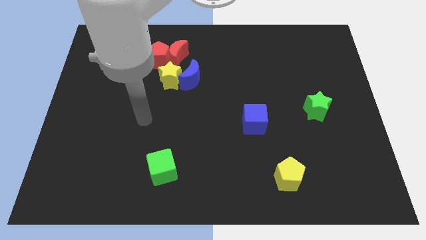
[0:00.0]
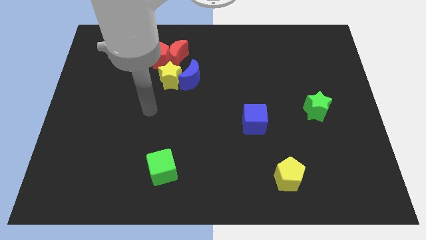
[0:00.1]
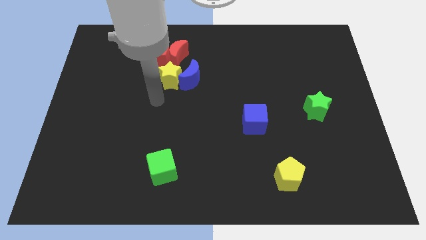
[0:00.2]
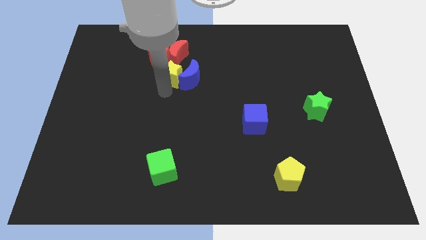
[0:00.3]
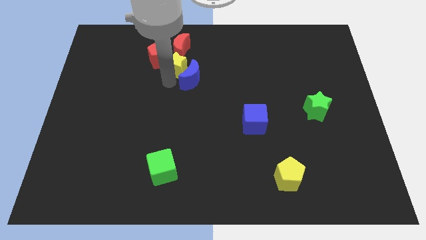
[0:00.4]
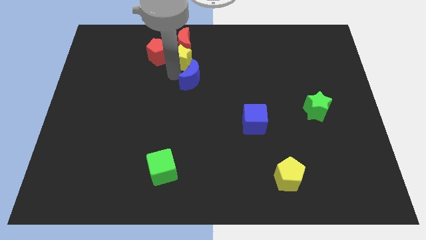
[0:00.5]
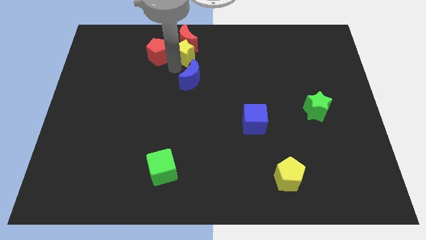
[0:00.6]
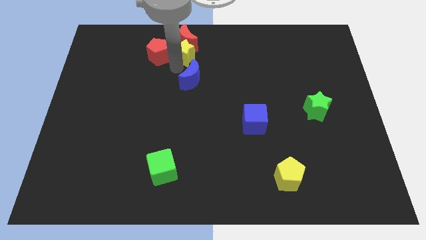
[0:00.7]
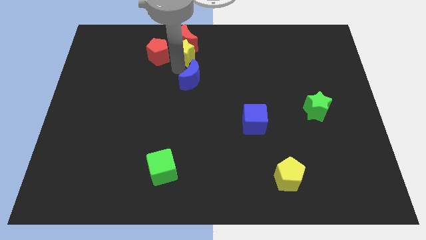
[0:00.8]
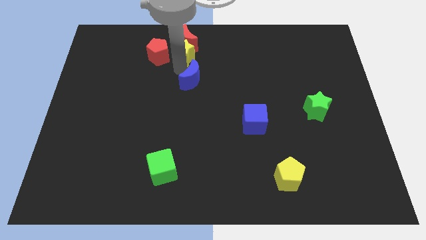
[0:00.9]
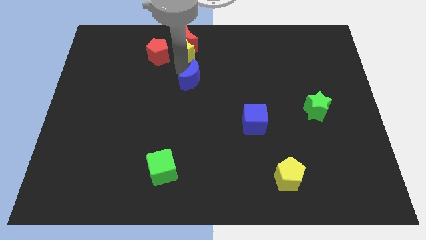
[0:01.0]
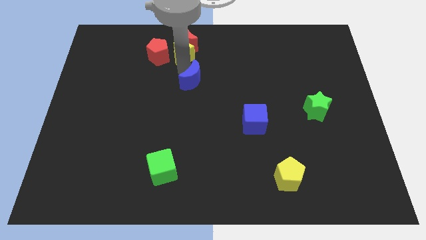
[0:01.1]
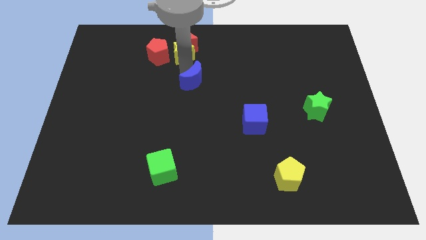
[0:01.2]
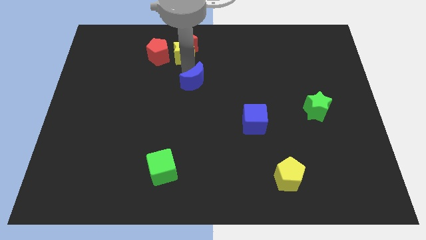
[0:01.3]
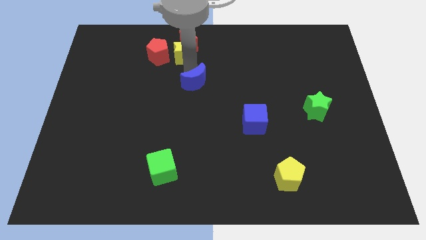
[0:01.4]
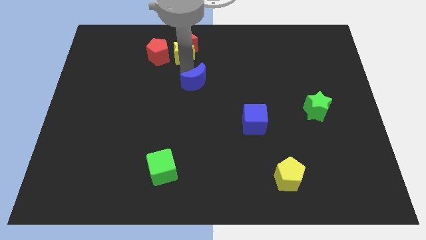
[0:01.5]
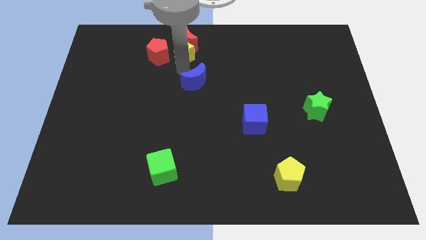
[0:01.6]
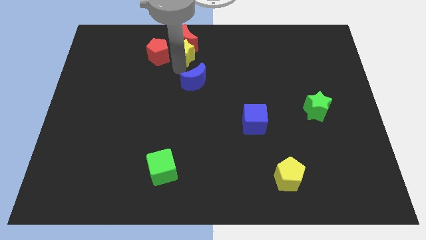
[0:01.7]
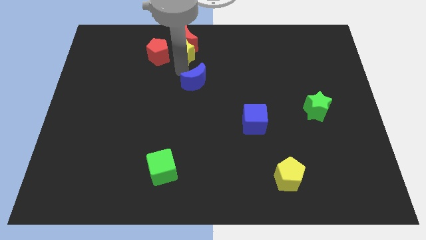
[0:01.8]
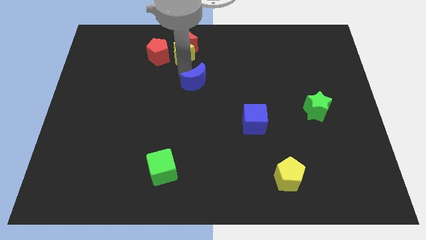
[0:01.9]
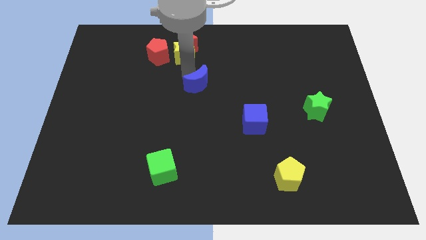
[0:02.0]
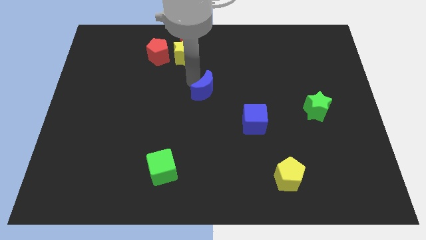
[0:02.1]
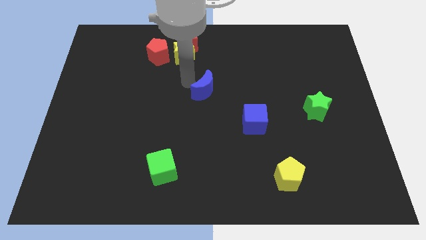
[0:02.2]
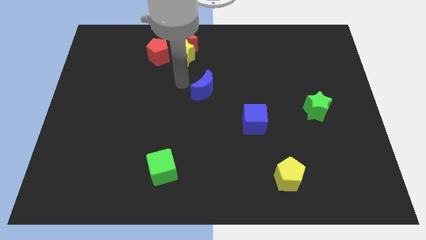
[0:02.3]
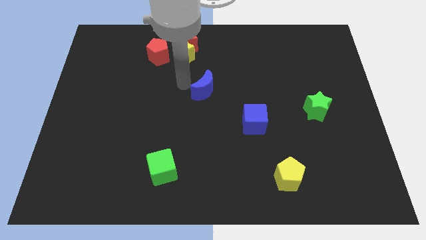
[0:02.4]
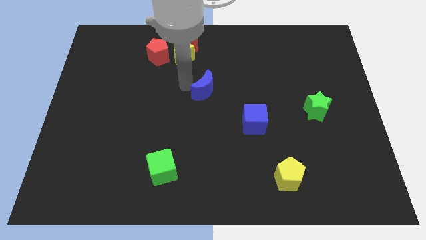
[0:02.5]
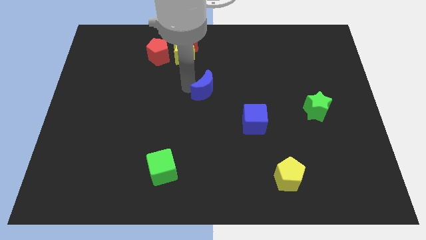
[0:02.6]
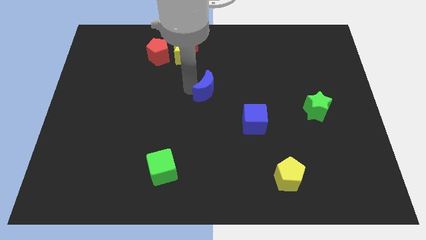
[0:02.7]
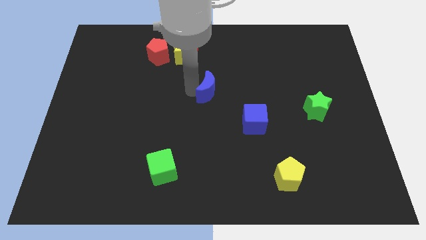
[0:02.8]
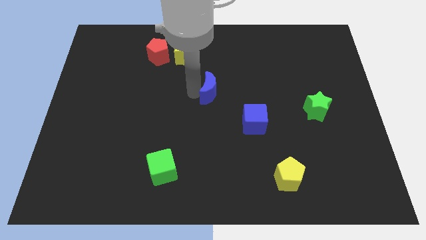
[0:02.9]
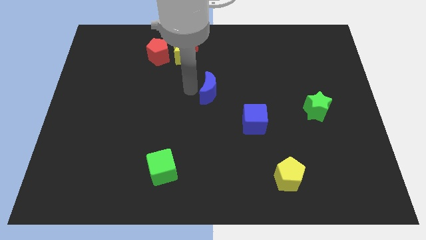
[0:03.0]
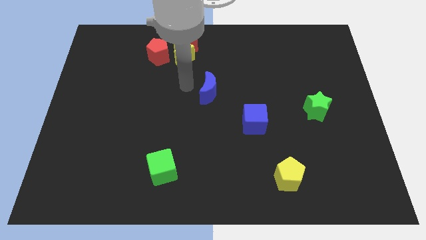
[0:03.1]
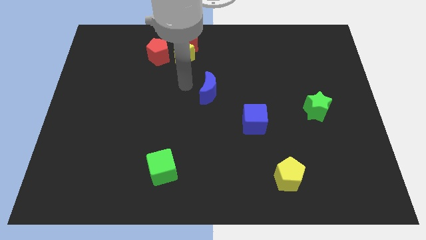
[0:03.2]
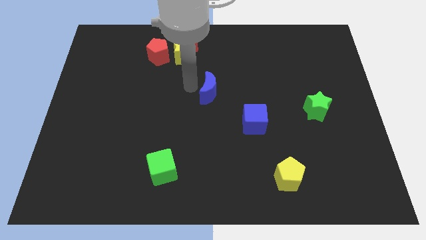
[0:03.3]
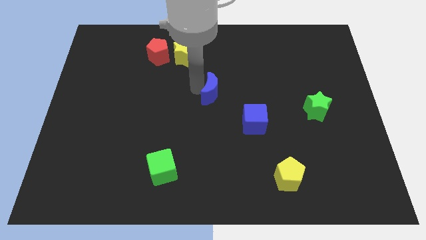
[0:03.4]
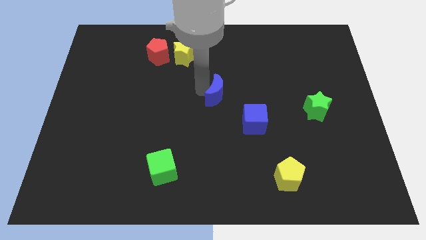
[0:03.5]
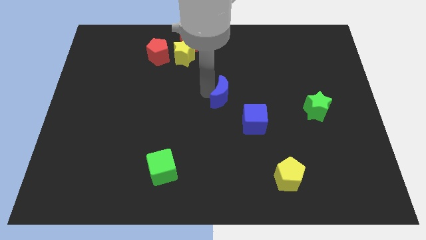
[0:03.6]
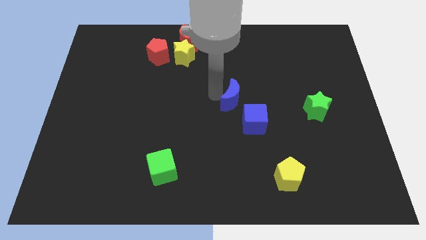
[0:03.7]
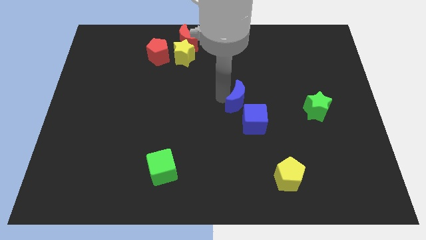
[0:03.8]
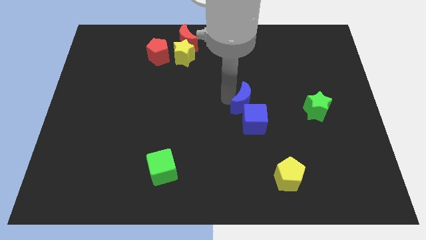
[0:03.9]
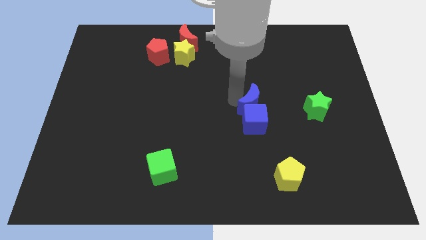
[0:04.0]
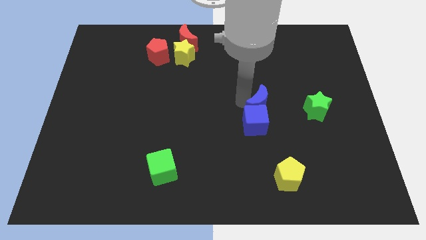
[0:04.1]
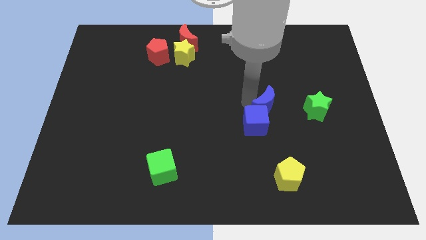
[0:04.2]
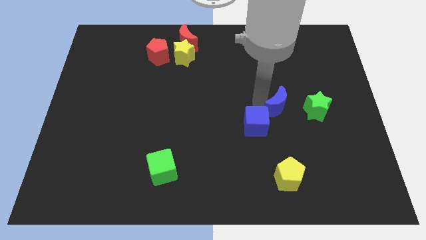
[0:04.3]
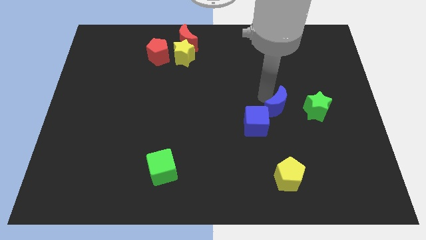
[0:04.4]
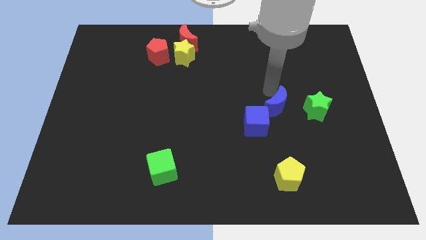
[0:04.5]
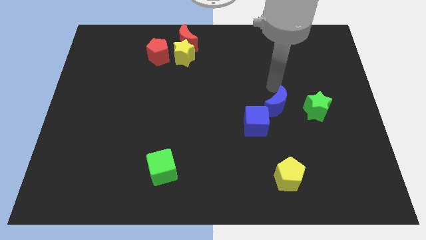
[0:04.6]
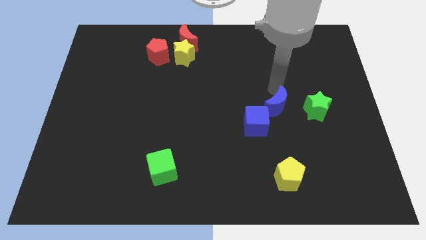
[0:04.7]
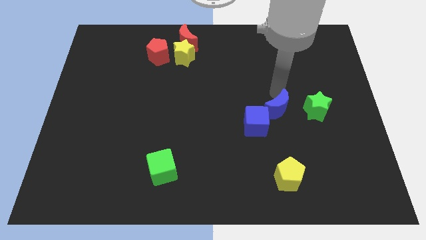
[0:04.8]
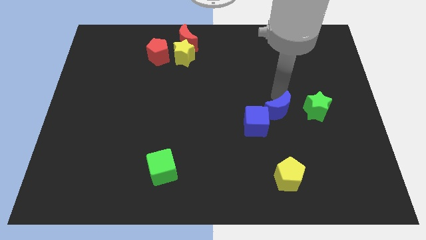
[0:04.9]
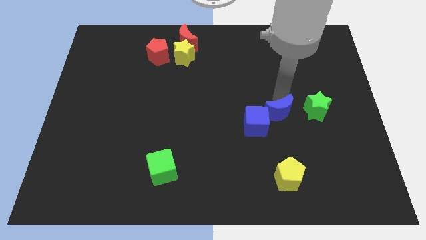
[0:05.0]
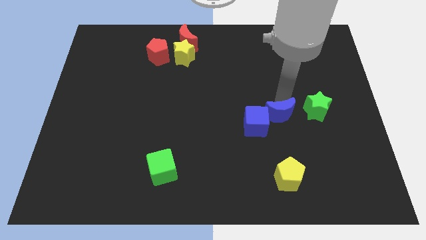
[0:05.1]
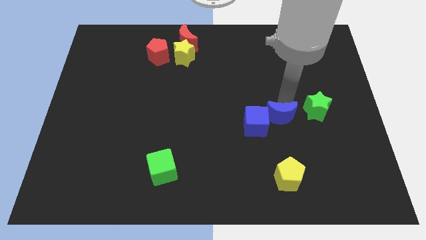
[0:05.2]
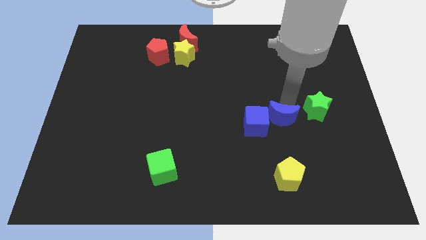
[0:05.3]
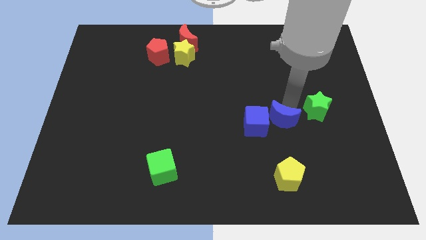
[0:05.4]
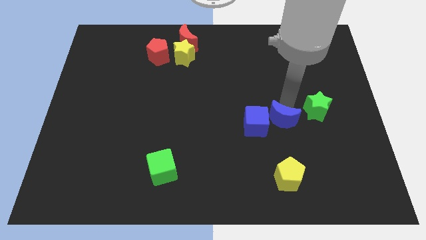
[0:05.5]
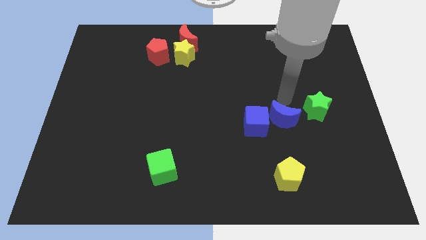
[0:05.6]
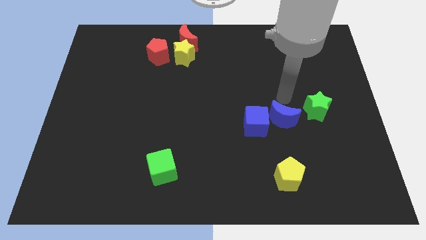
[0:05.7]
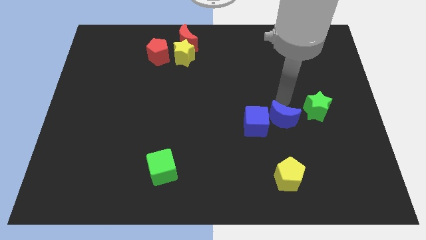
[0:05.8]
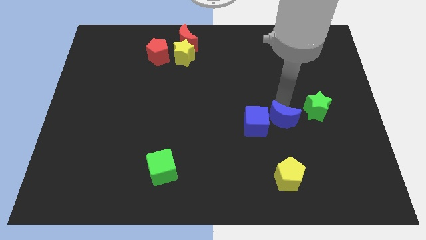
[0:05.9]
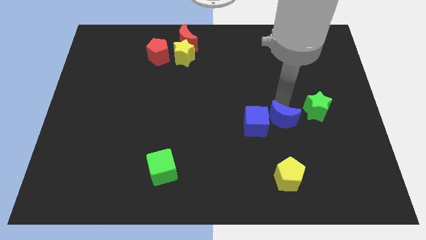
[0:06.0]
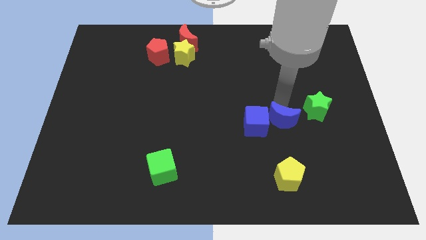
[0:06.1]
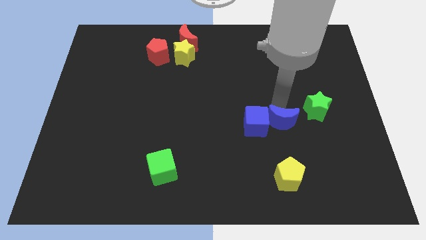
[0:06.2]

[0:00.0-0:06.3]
move the blue moon to the bottom right side of the blue cube

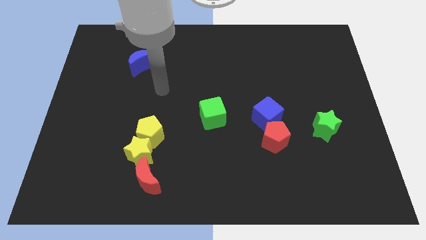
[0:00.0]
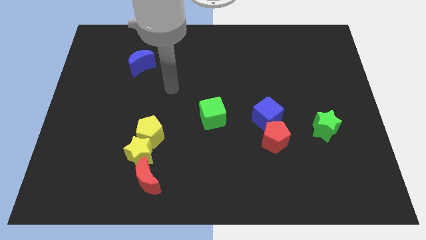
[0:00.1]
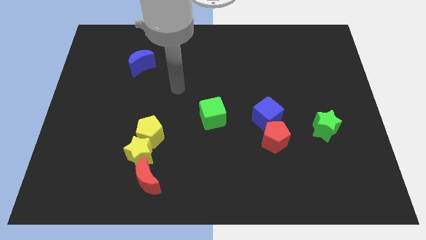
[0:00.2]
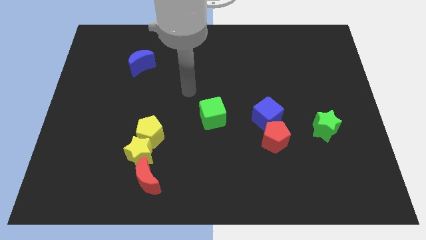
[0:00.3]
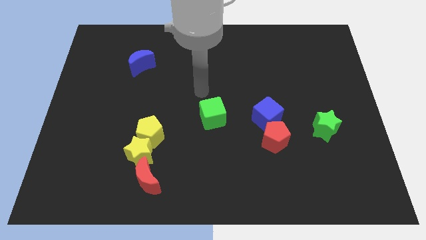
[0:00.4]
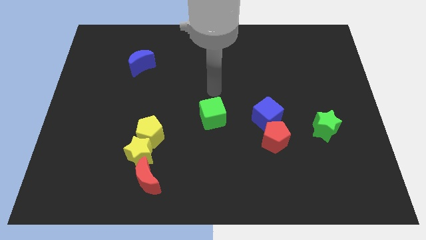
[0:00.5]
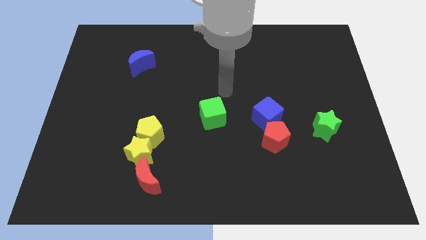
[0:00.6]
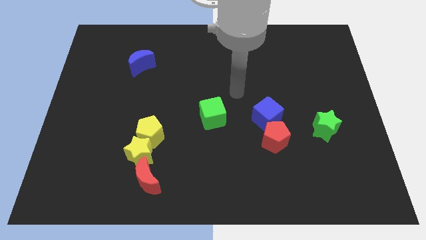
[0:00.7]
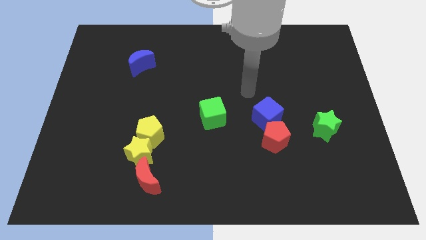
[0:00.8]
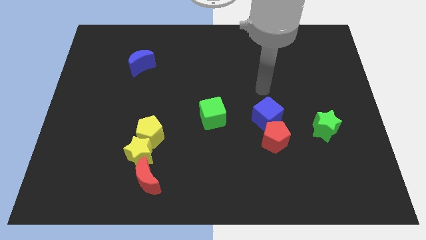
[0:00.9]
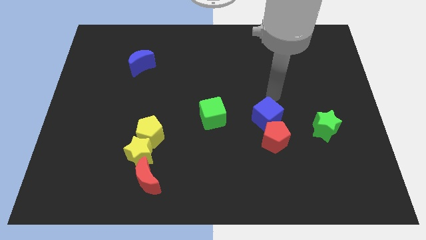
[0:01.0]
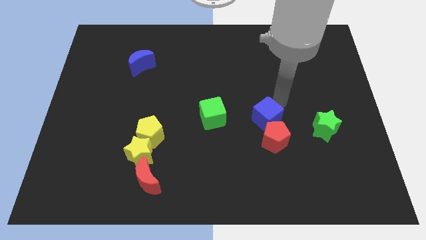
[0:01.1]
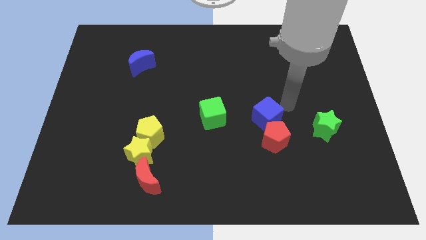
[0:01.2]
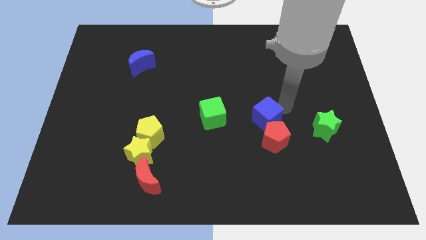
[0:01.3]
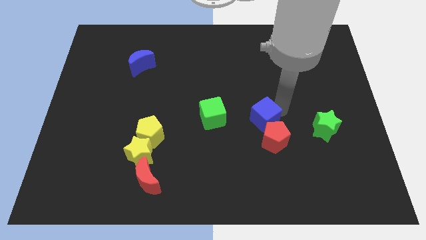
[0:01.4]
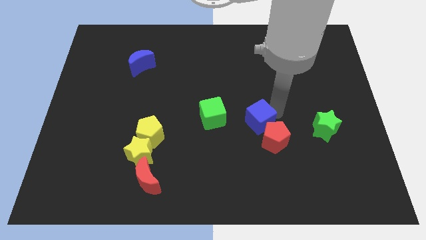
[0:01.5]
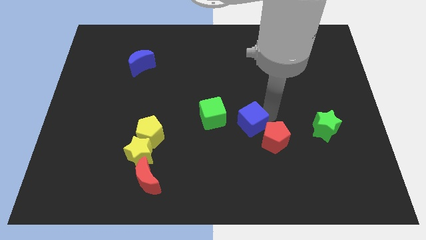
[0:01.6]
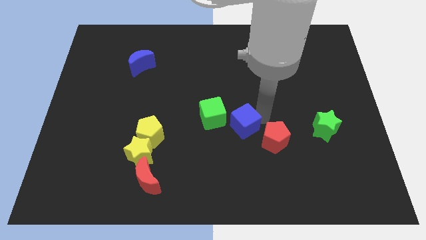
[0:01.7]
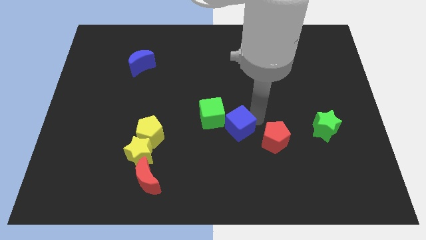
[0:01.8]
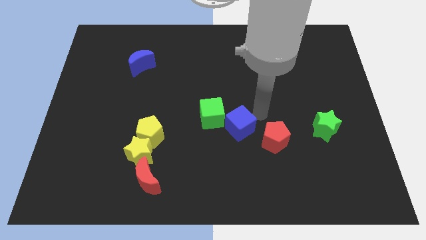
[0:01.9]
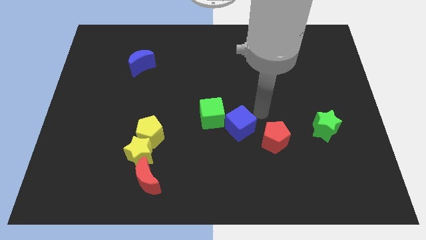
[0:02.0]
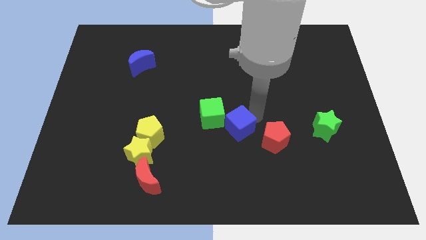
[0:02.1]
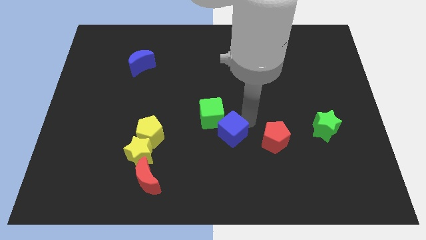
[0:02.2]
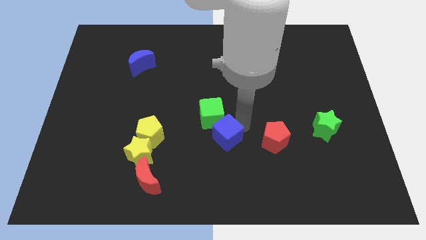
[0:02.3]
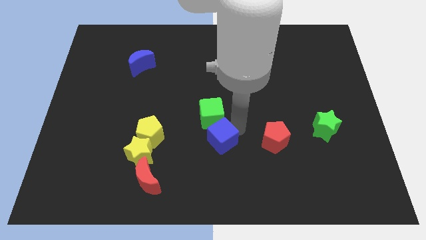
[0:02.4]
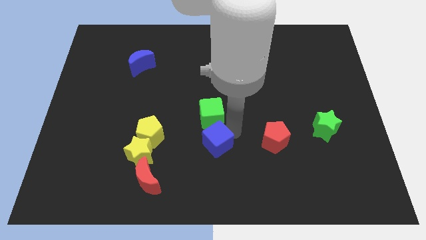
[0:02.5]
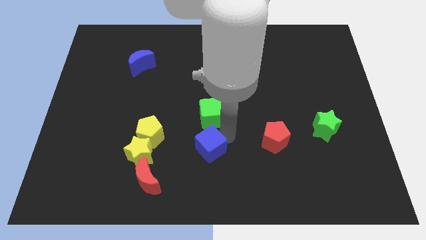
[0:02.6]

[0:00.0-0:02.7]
push the blue cube just right of the yellow star
